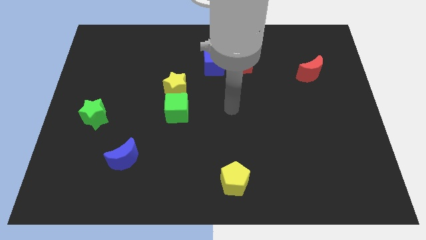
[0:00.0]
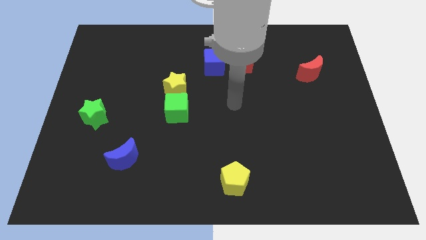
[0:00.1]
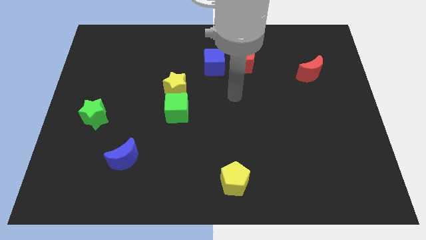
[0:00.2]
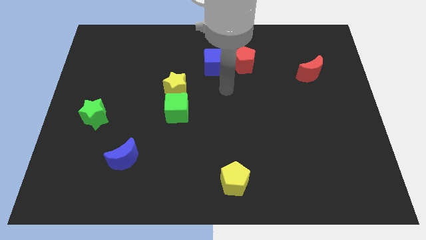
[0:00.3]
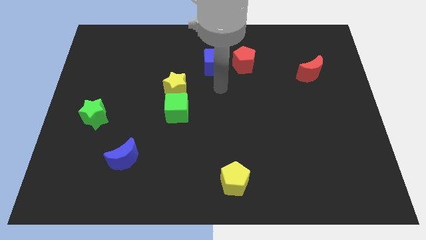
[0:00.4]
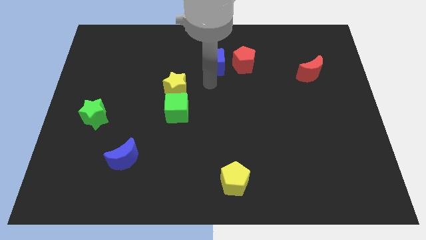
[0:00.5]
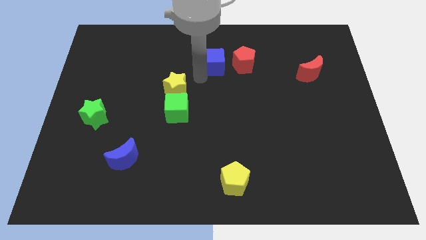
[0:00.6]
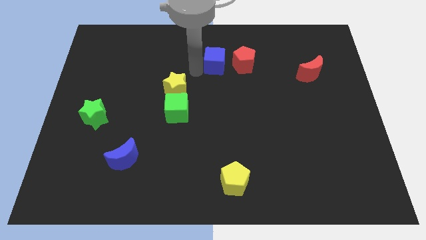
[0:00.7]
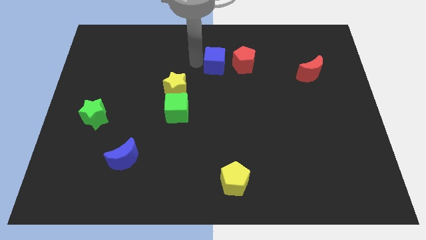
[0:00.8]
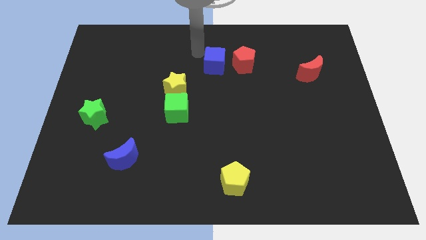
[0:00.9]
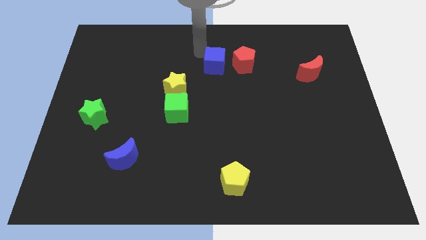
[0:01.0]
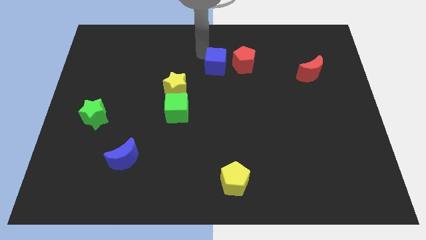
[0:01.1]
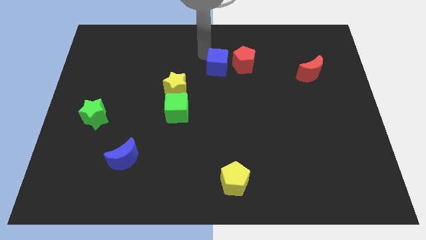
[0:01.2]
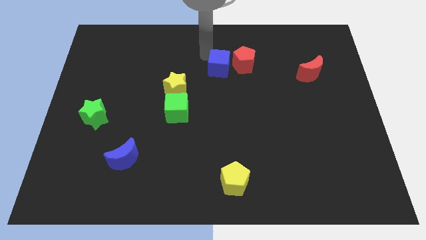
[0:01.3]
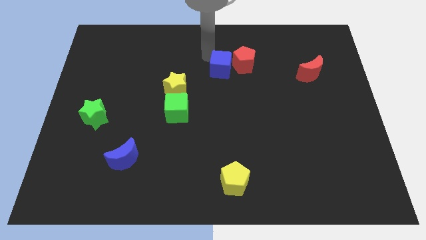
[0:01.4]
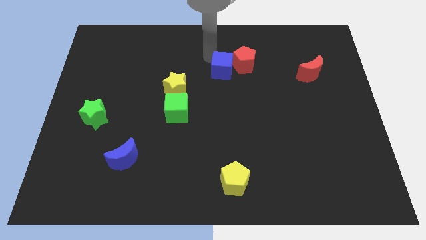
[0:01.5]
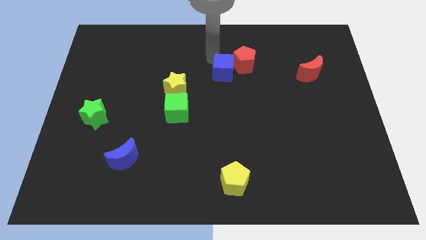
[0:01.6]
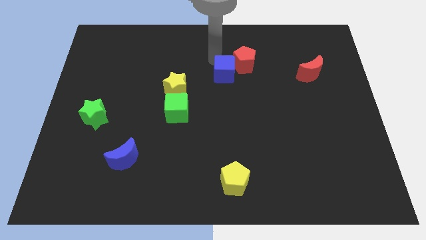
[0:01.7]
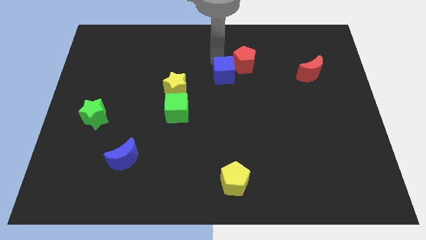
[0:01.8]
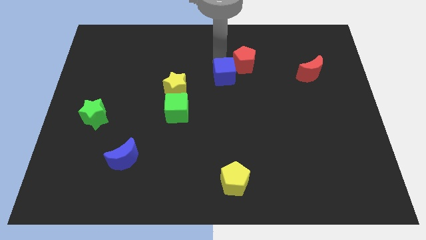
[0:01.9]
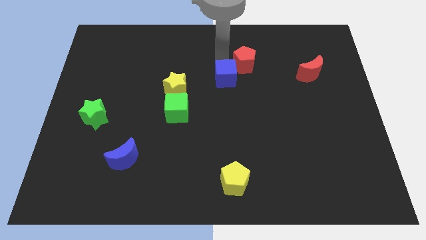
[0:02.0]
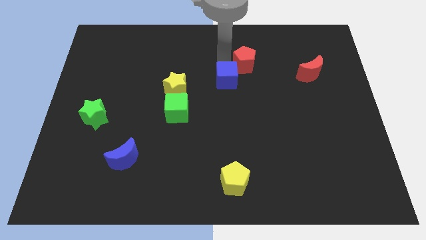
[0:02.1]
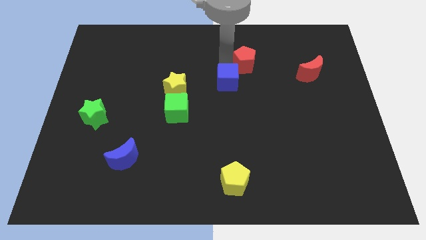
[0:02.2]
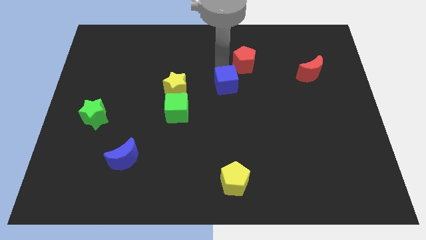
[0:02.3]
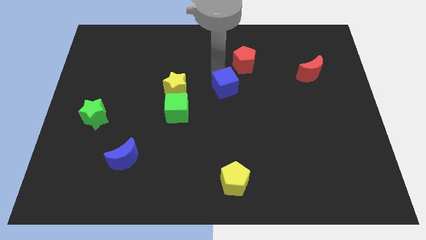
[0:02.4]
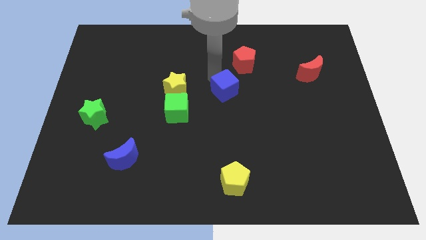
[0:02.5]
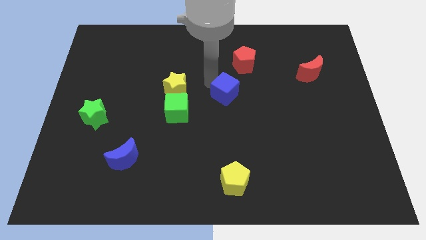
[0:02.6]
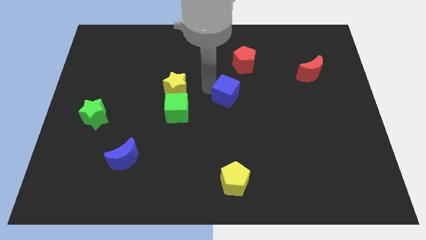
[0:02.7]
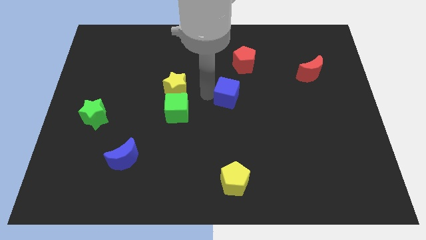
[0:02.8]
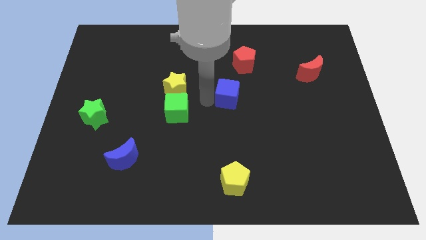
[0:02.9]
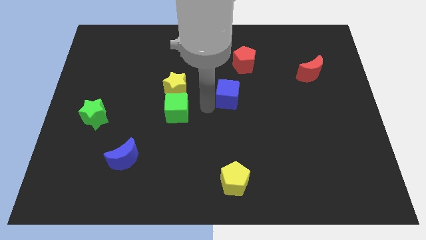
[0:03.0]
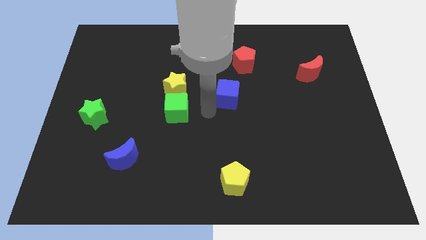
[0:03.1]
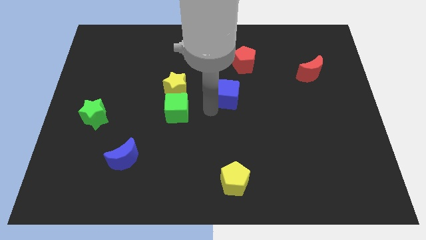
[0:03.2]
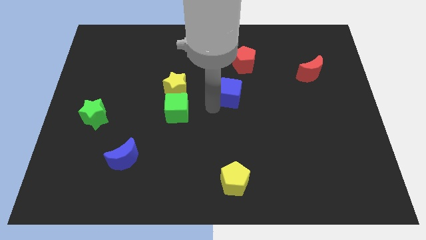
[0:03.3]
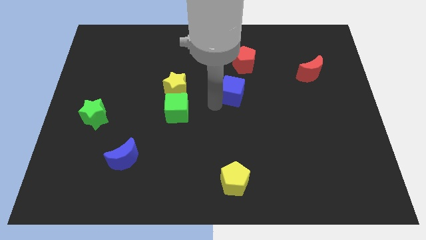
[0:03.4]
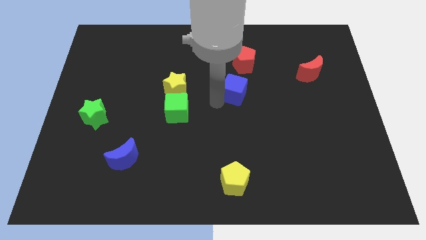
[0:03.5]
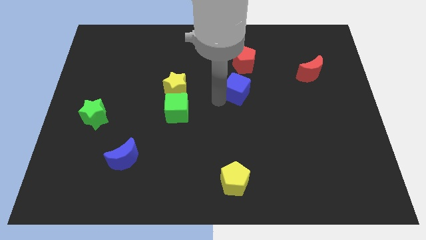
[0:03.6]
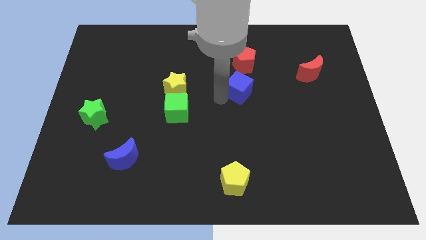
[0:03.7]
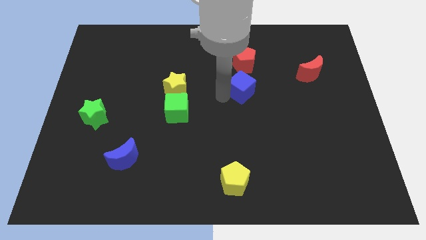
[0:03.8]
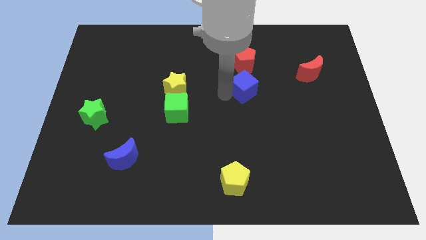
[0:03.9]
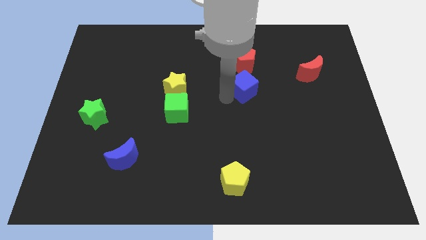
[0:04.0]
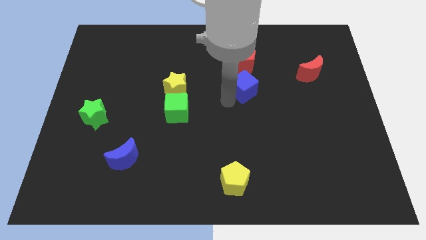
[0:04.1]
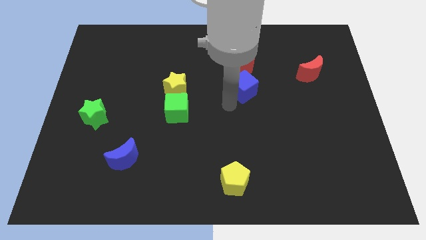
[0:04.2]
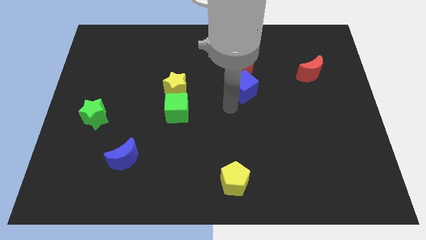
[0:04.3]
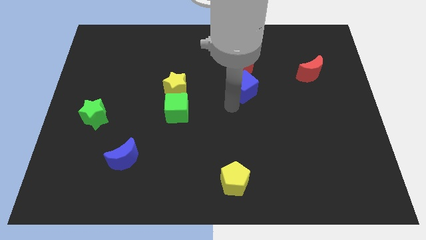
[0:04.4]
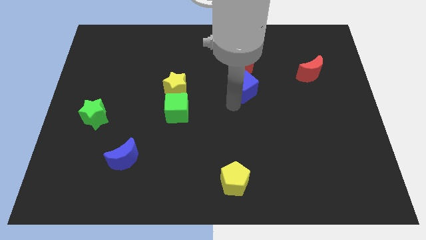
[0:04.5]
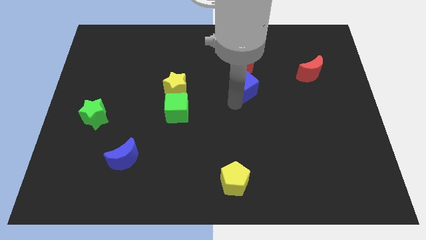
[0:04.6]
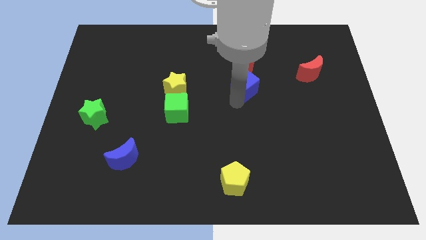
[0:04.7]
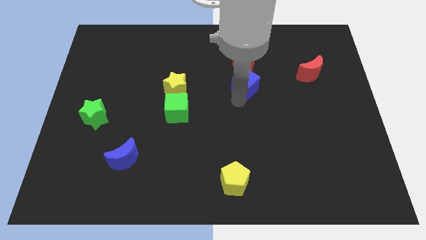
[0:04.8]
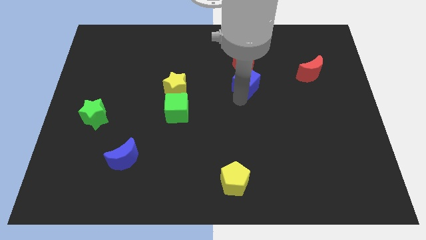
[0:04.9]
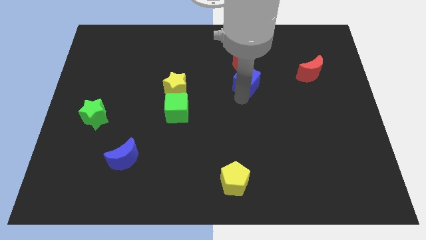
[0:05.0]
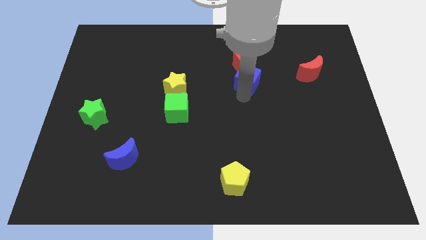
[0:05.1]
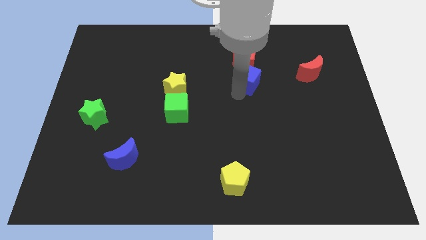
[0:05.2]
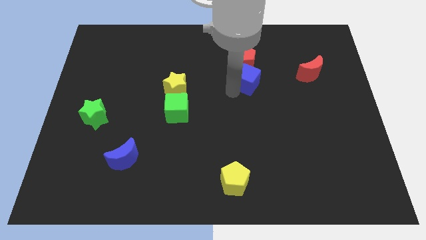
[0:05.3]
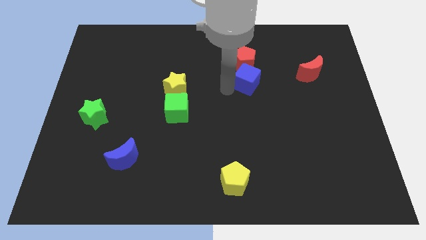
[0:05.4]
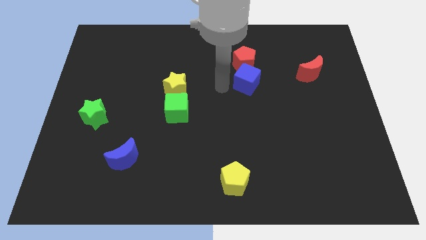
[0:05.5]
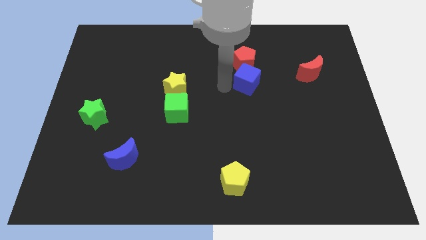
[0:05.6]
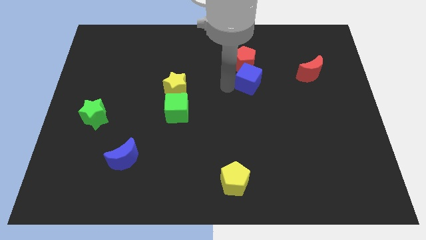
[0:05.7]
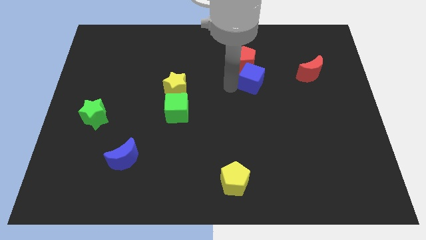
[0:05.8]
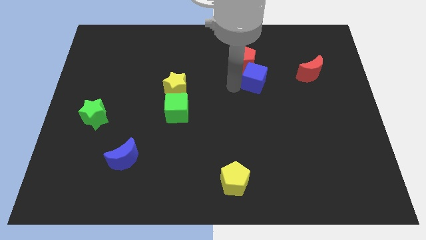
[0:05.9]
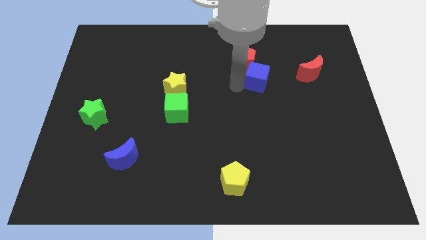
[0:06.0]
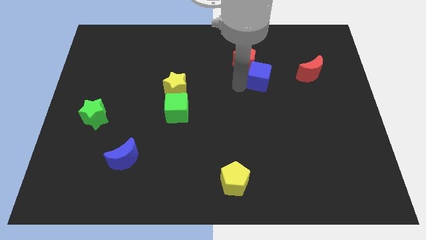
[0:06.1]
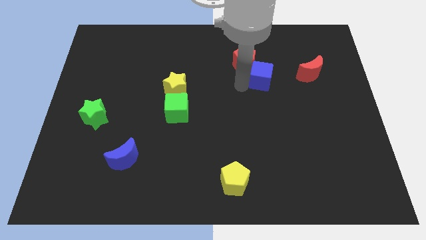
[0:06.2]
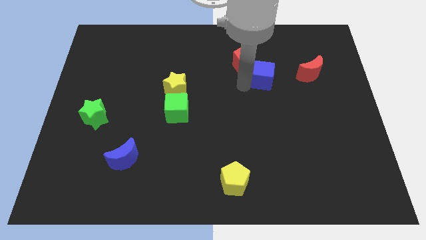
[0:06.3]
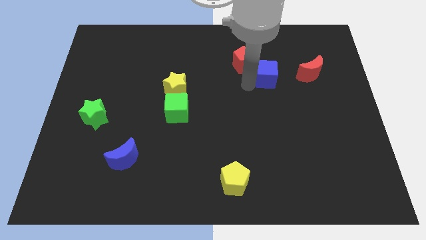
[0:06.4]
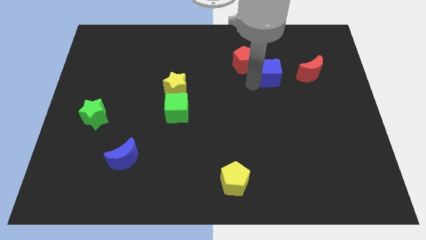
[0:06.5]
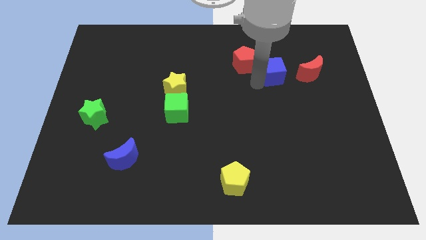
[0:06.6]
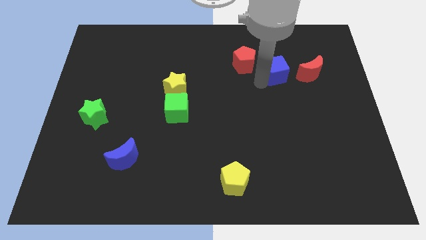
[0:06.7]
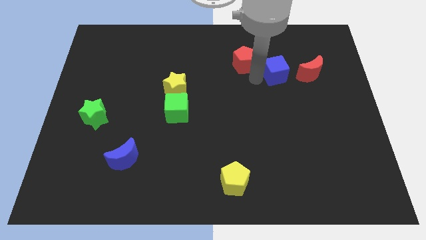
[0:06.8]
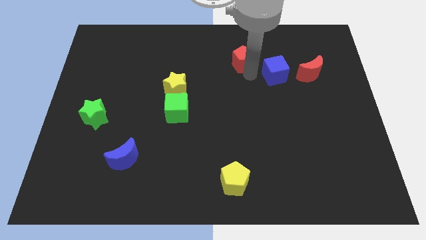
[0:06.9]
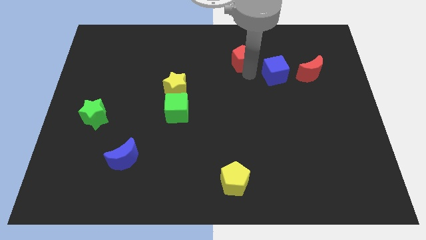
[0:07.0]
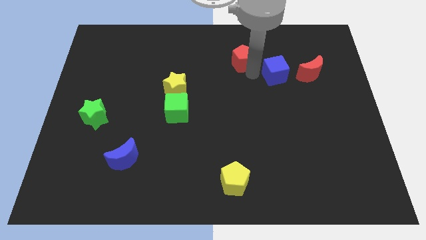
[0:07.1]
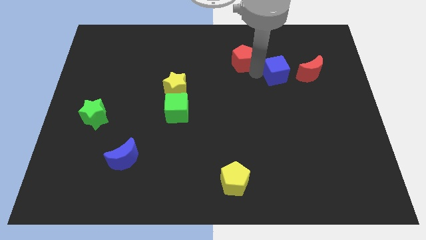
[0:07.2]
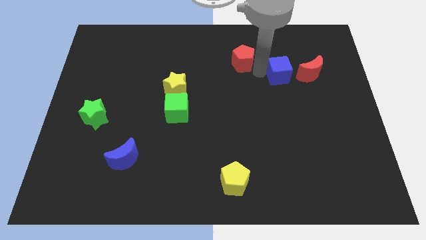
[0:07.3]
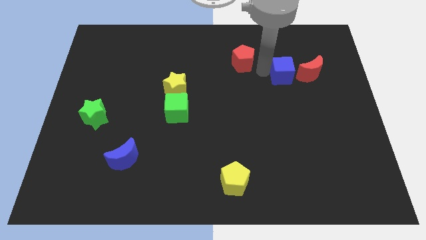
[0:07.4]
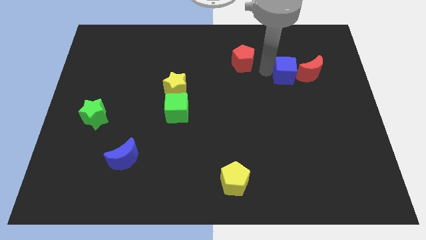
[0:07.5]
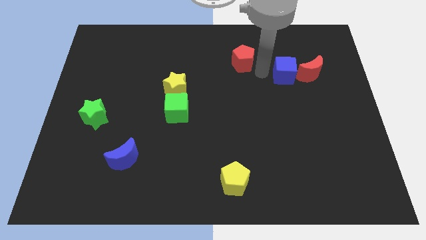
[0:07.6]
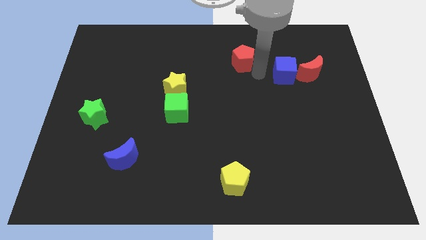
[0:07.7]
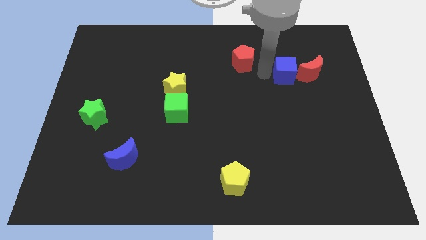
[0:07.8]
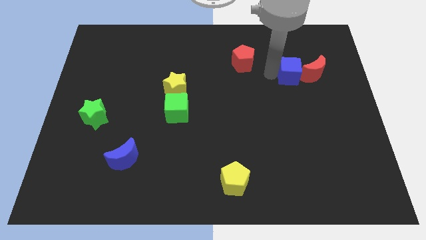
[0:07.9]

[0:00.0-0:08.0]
push the blue cube towards the red moon

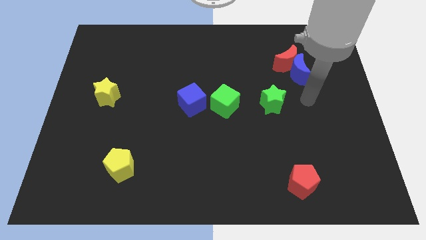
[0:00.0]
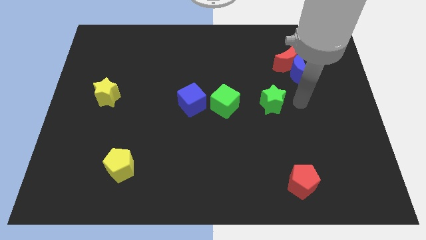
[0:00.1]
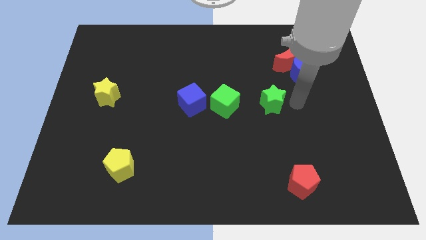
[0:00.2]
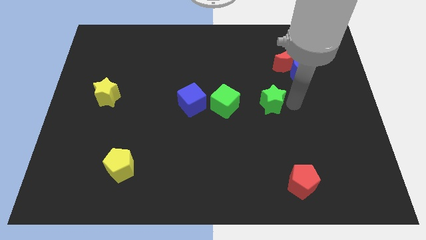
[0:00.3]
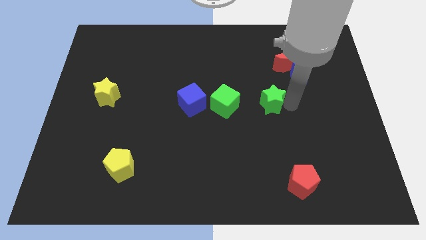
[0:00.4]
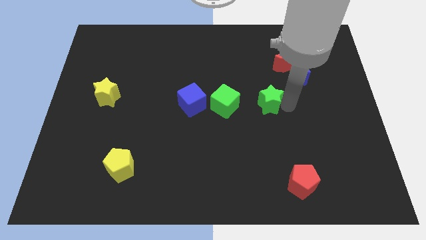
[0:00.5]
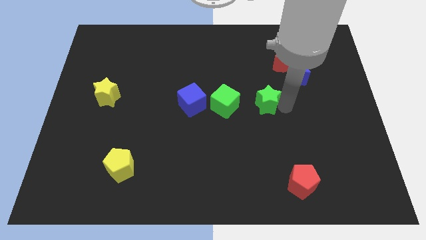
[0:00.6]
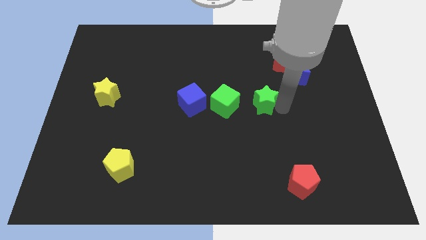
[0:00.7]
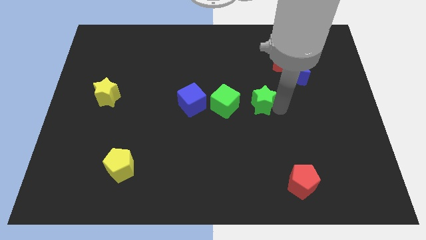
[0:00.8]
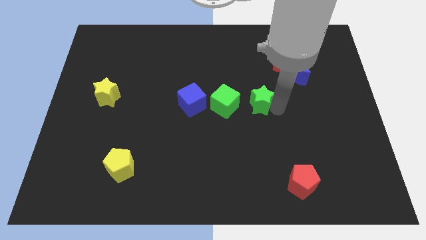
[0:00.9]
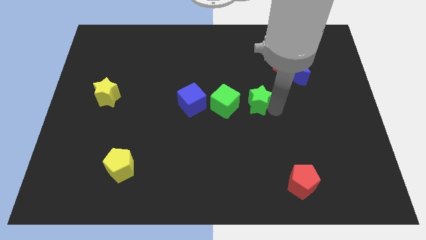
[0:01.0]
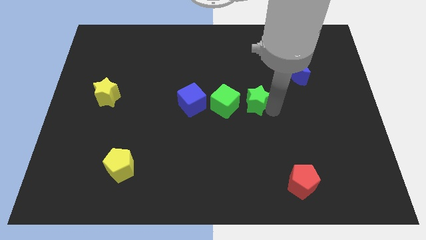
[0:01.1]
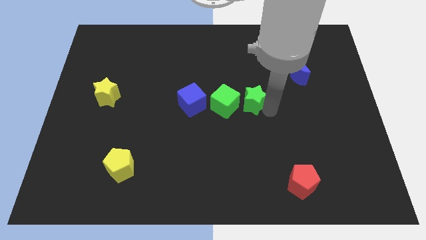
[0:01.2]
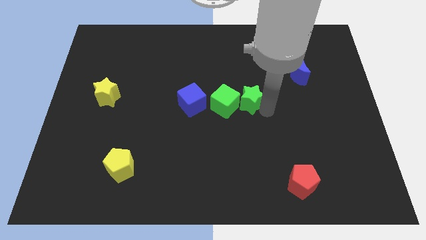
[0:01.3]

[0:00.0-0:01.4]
slide the green star to the green cube
